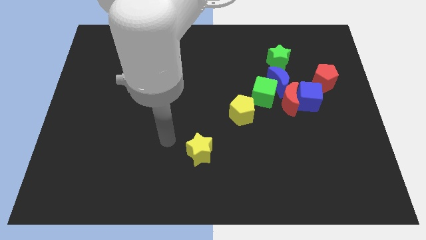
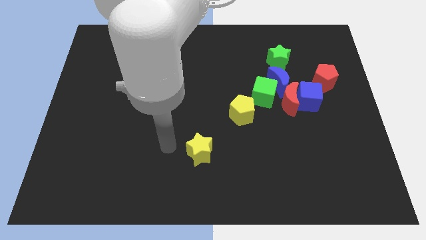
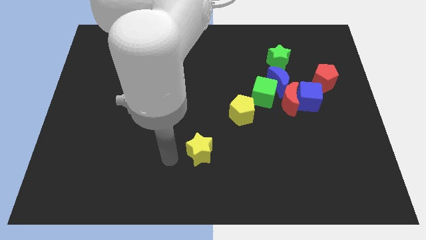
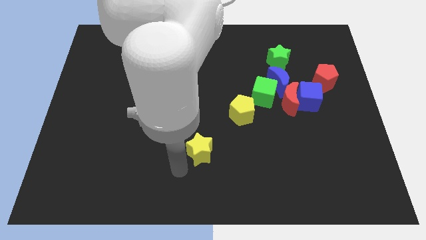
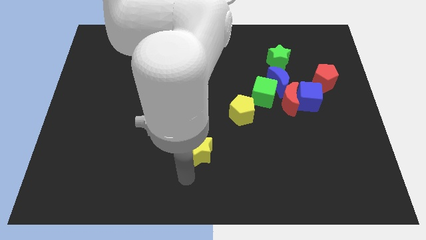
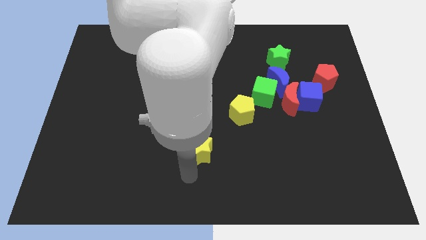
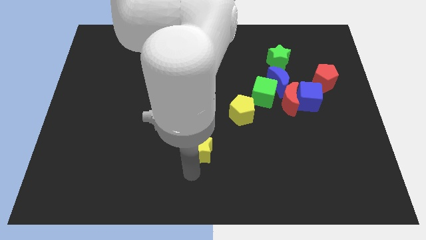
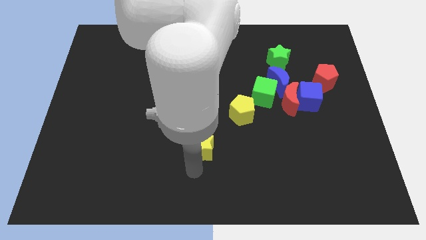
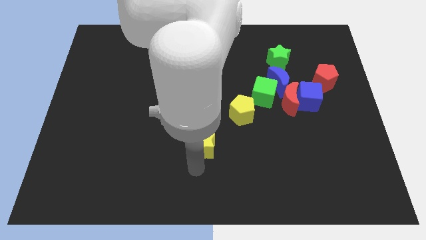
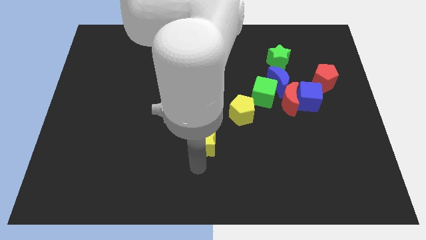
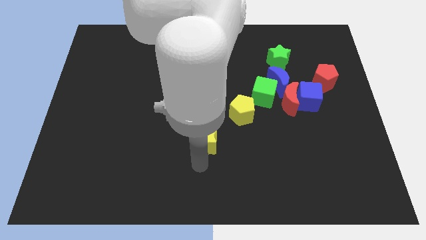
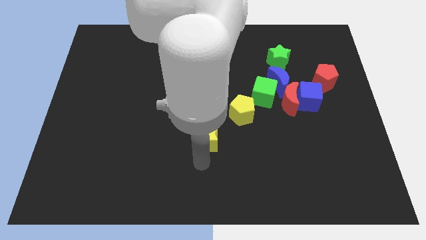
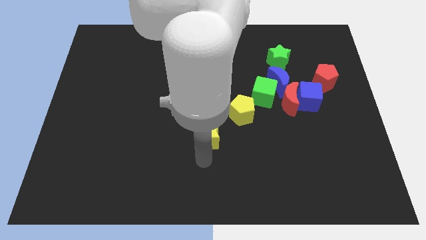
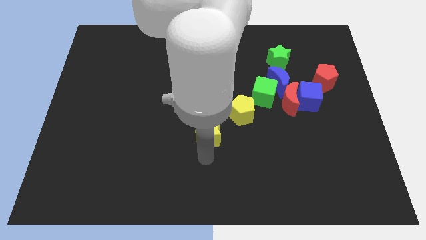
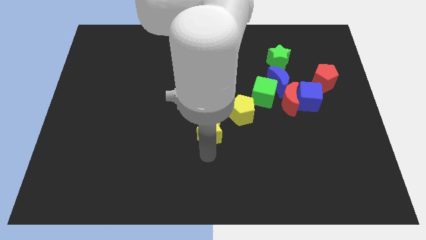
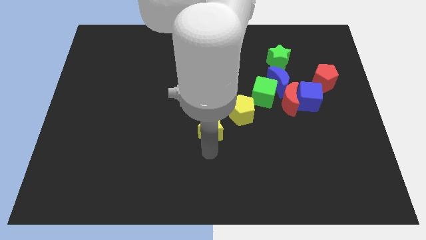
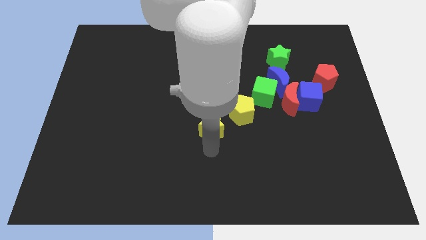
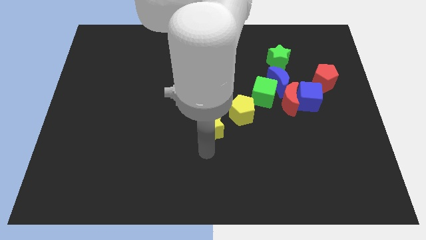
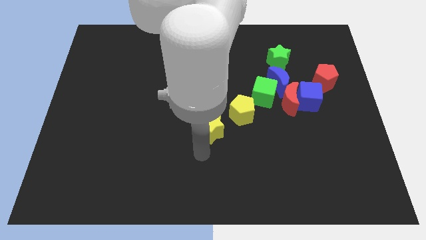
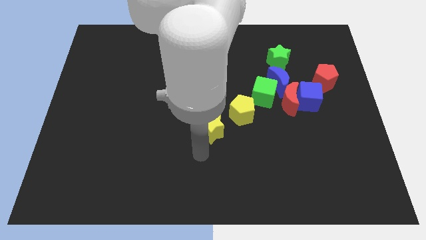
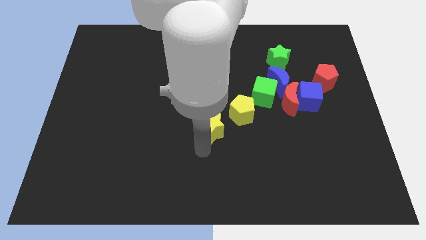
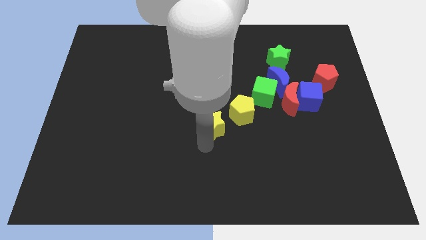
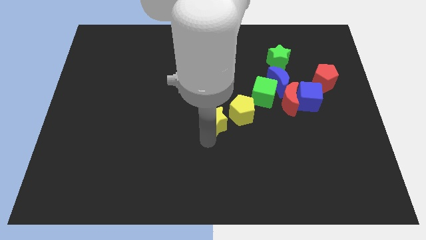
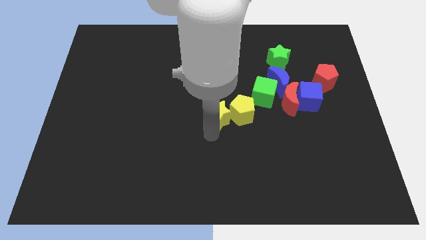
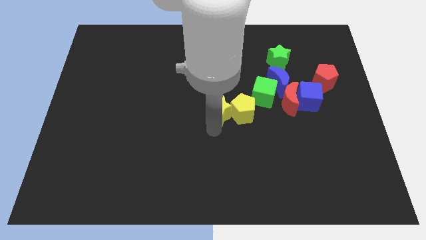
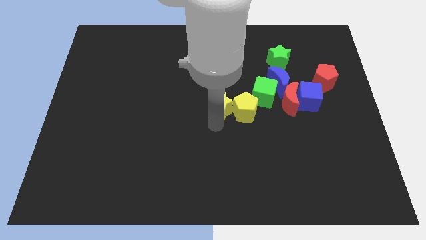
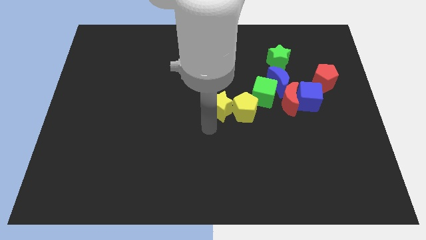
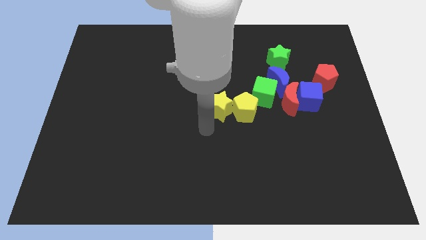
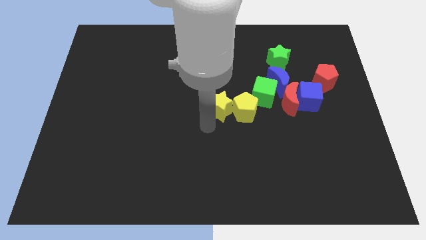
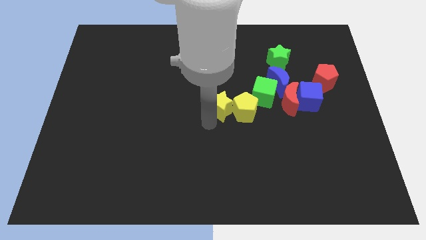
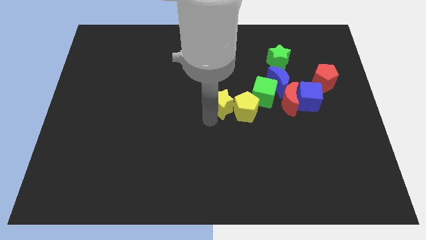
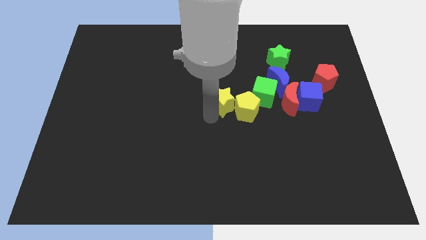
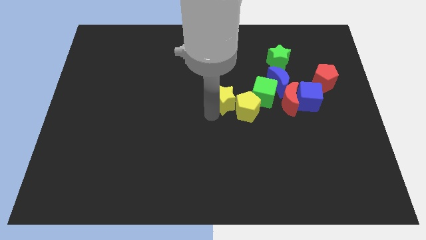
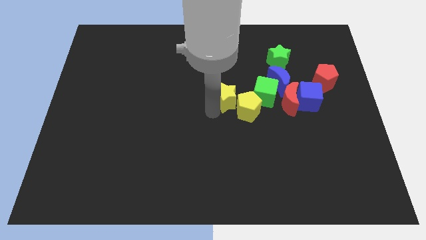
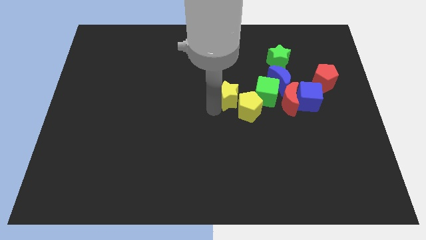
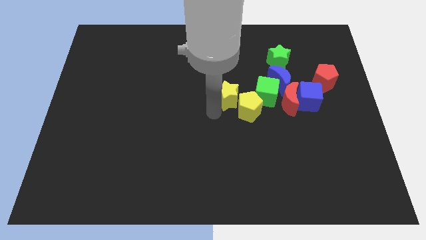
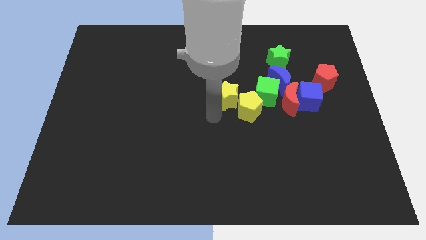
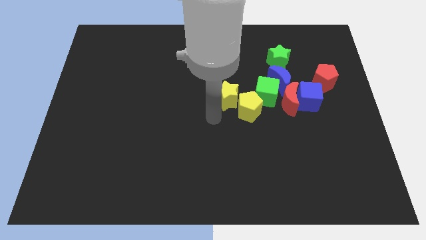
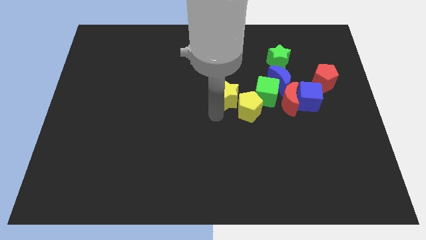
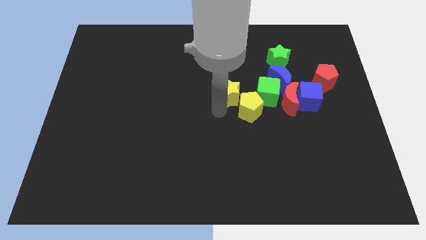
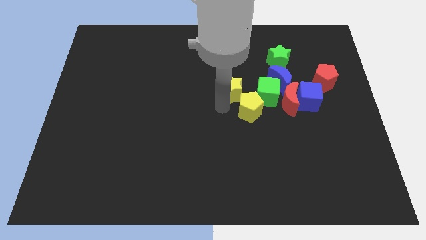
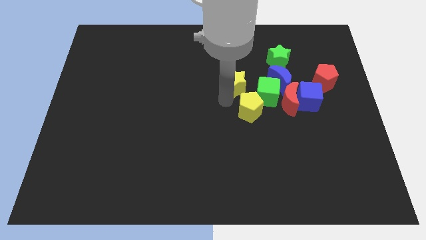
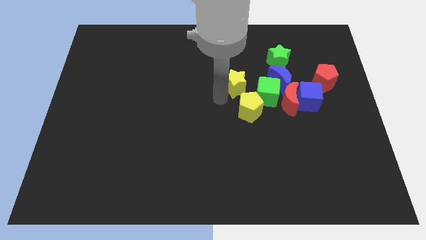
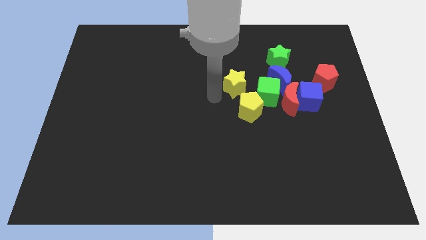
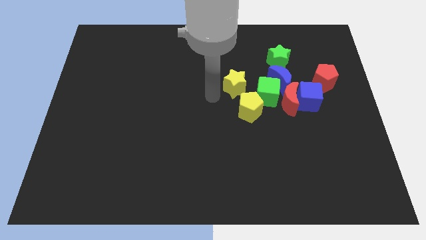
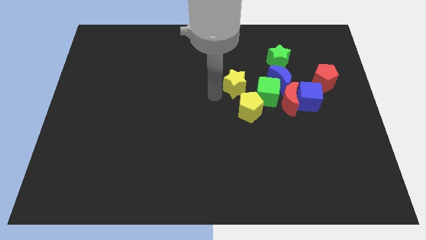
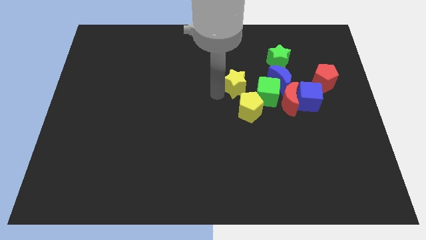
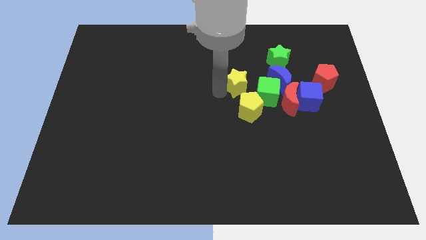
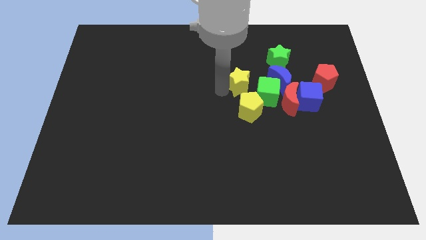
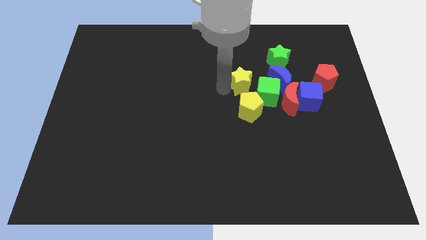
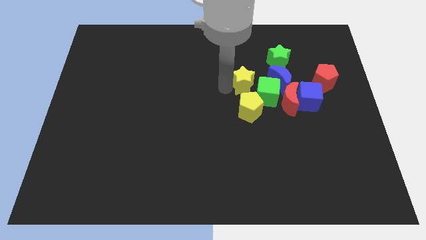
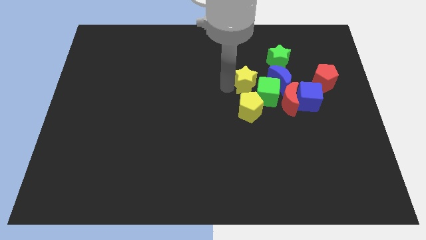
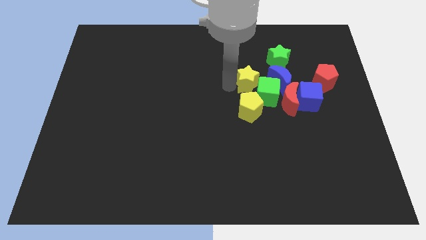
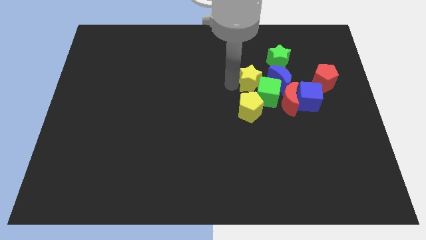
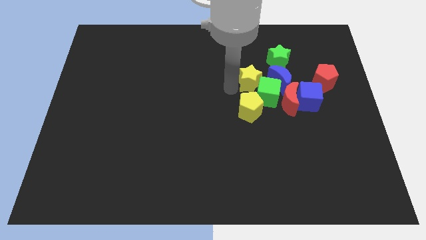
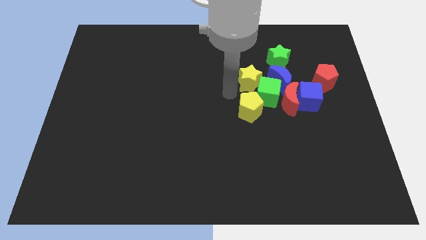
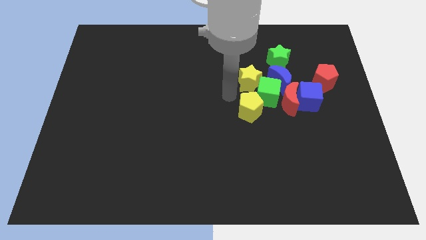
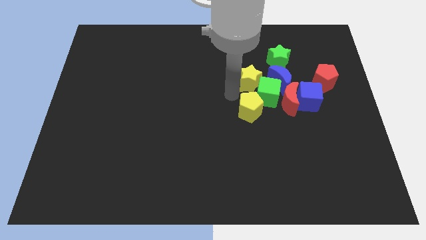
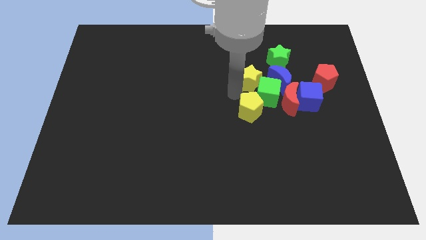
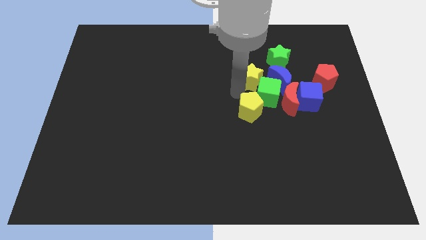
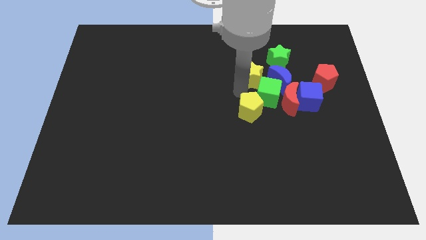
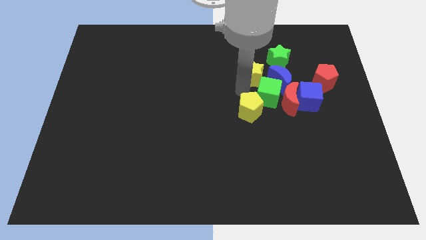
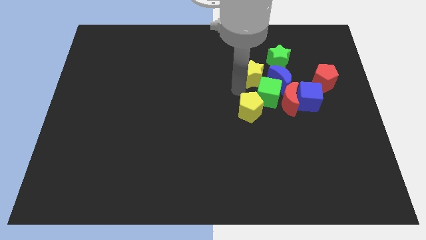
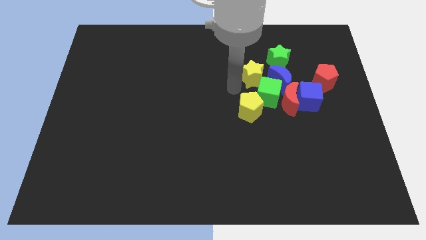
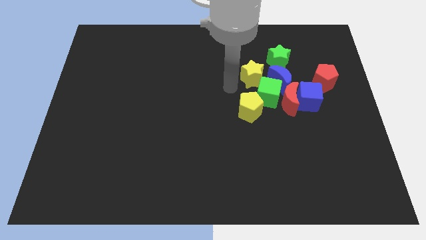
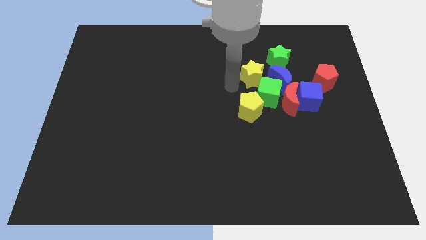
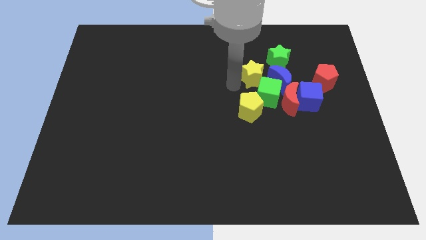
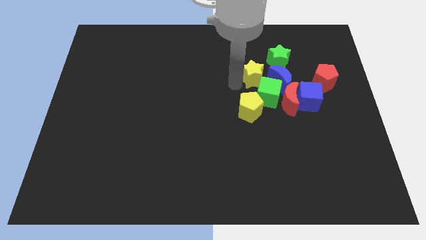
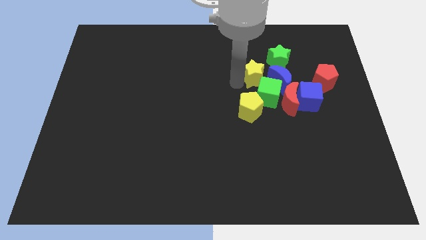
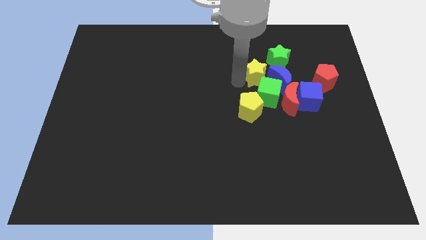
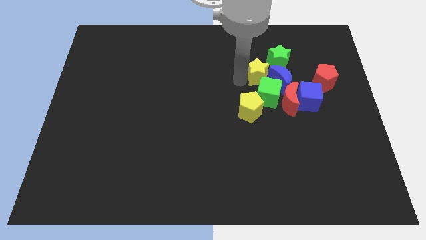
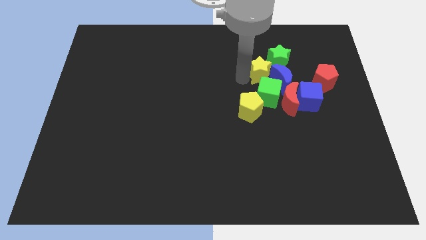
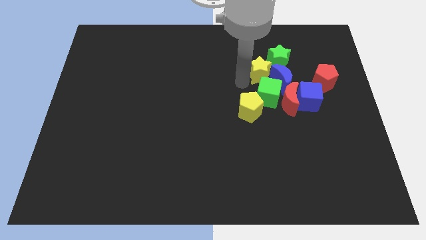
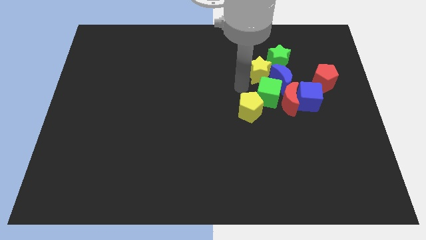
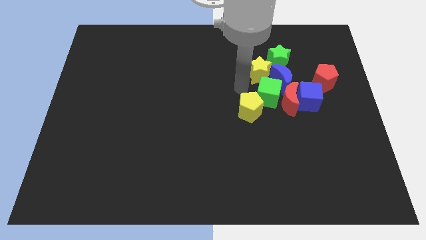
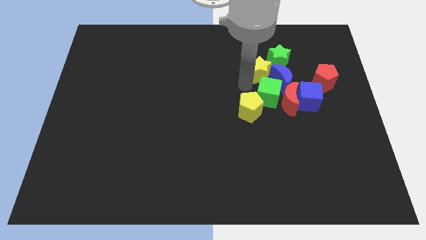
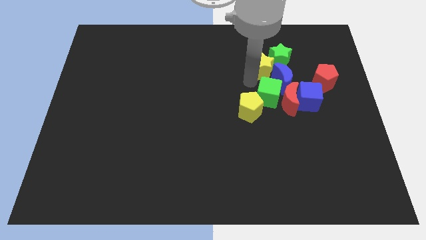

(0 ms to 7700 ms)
put the yellow star to the green star
